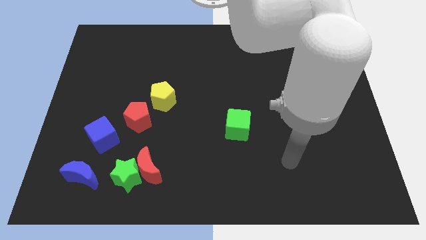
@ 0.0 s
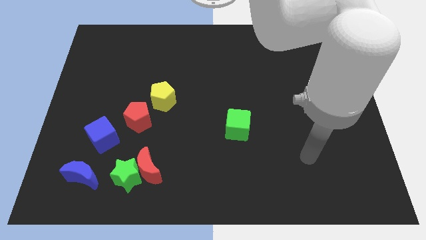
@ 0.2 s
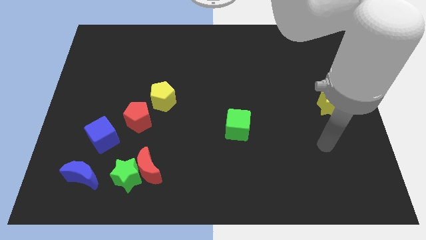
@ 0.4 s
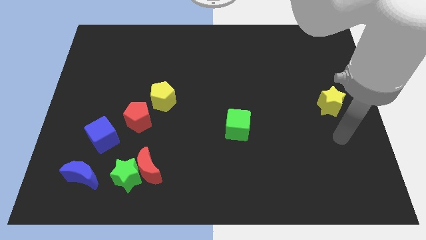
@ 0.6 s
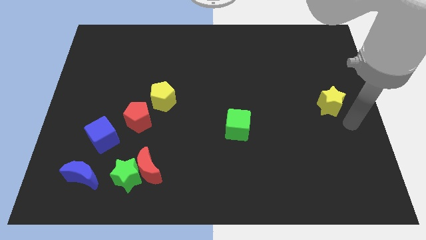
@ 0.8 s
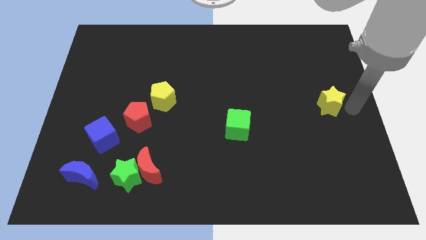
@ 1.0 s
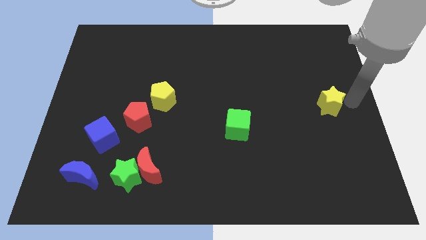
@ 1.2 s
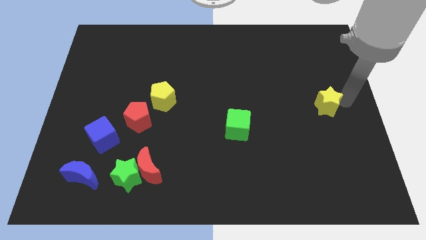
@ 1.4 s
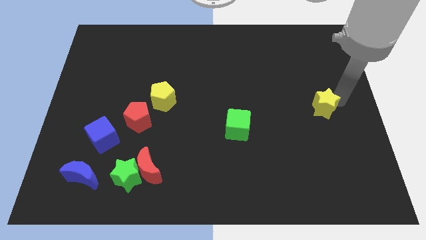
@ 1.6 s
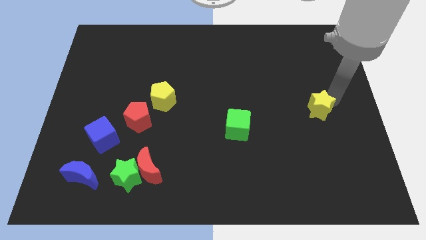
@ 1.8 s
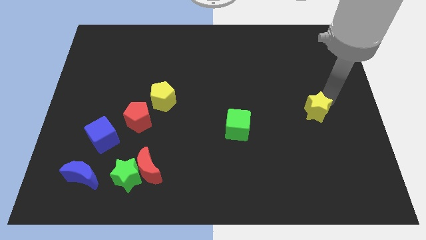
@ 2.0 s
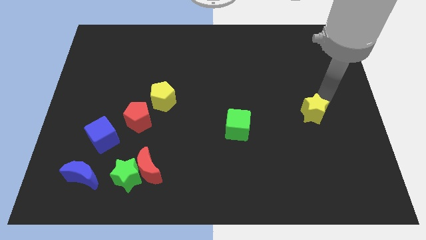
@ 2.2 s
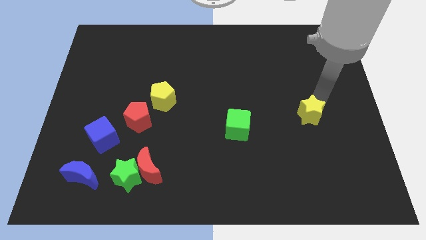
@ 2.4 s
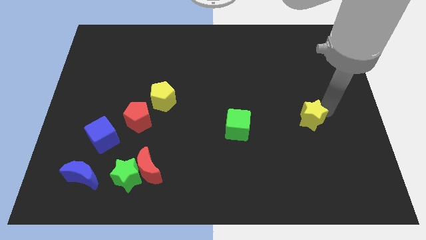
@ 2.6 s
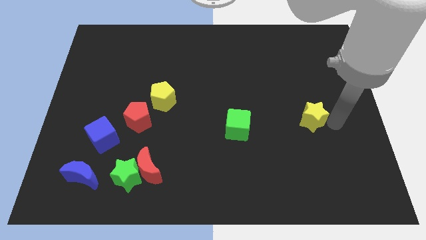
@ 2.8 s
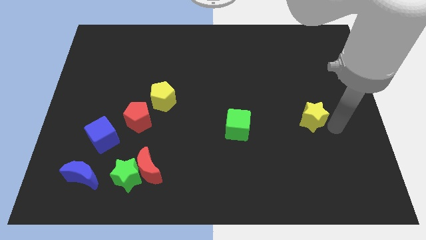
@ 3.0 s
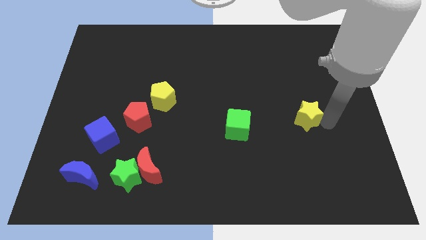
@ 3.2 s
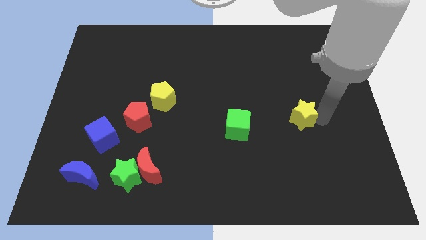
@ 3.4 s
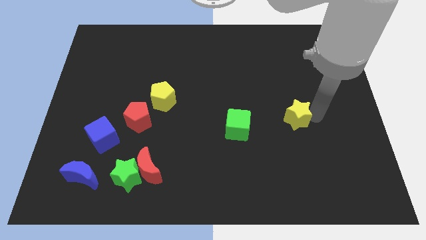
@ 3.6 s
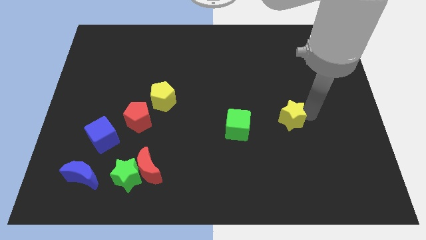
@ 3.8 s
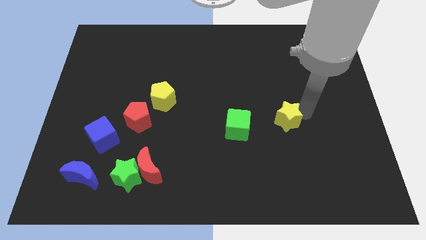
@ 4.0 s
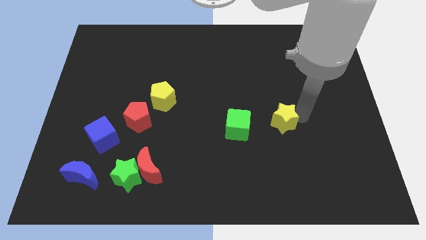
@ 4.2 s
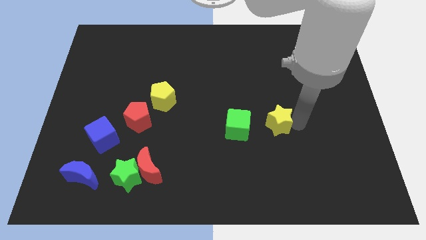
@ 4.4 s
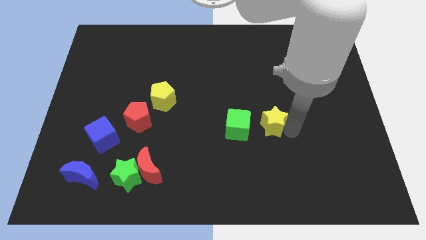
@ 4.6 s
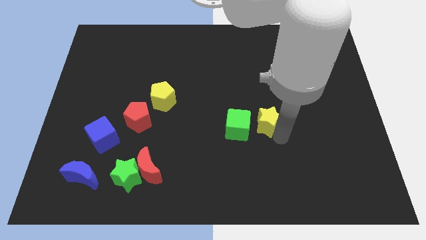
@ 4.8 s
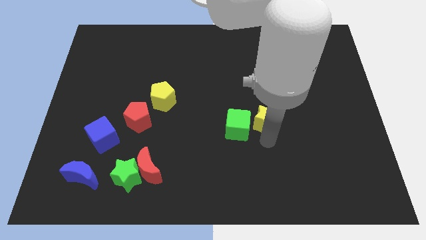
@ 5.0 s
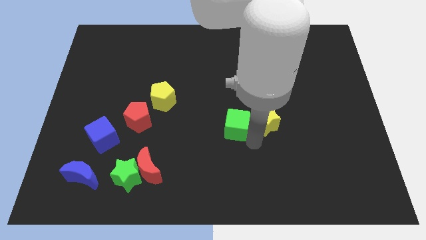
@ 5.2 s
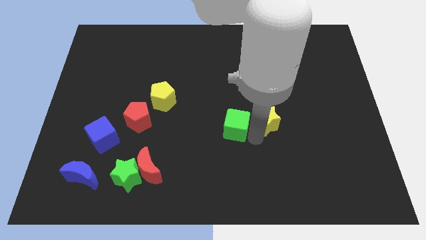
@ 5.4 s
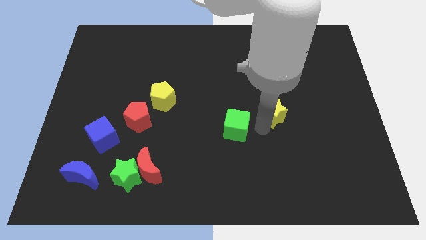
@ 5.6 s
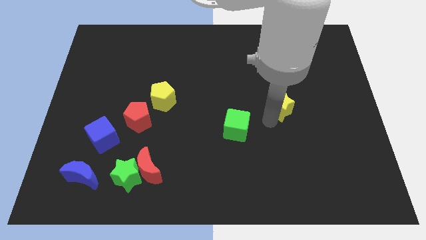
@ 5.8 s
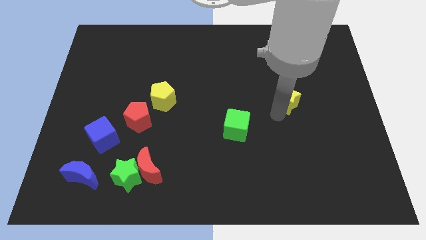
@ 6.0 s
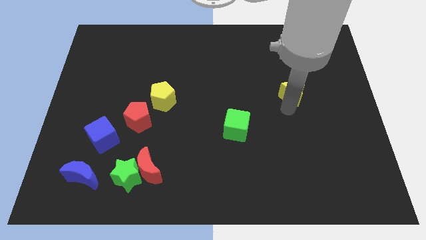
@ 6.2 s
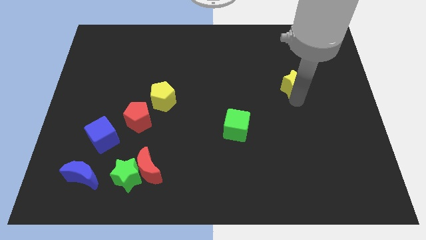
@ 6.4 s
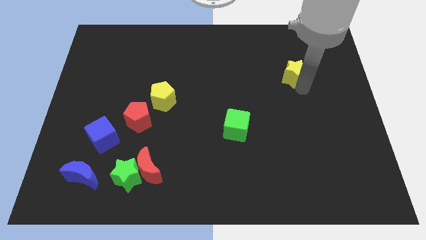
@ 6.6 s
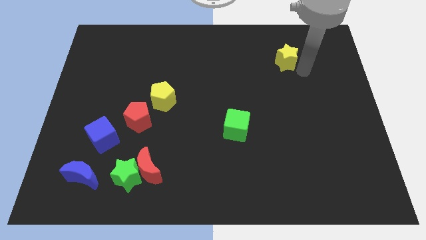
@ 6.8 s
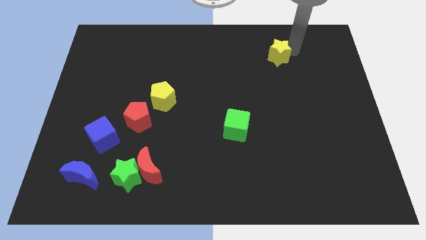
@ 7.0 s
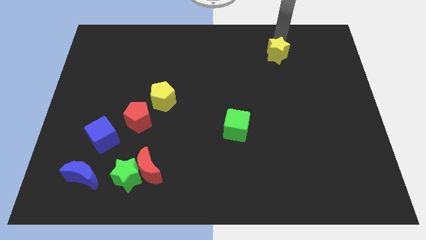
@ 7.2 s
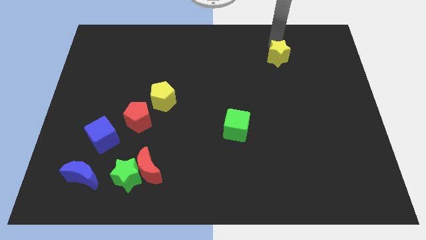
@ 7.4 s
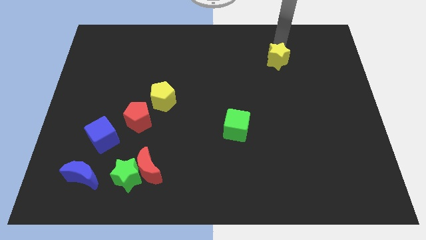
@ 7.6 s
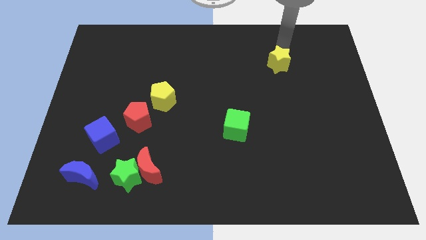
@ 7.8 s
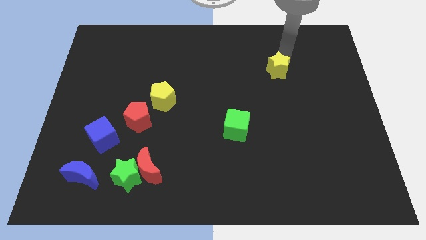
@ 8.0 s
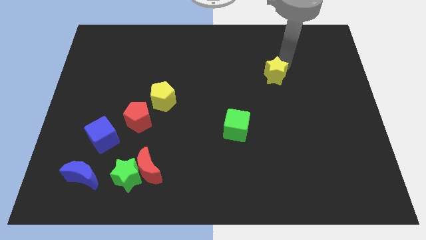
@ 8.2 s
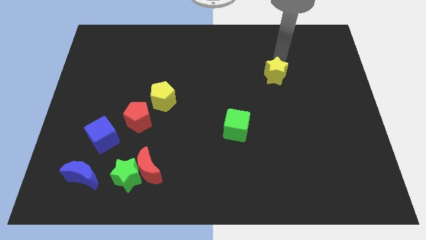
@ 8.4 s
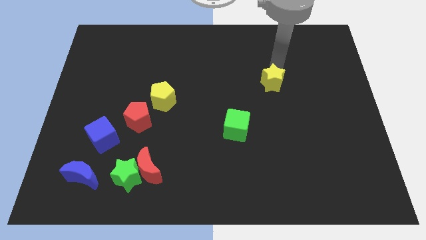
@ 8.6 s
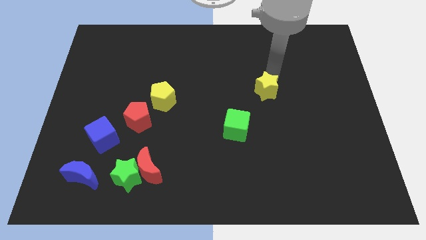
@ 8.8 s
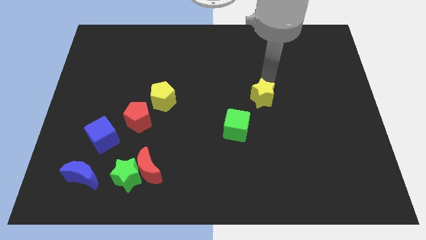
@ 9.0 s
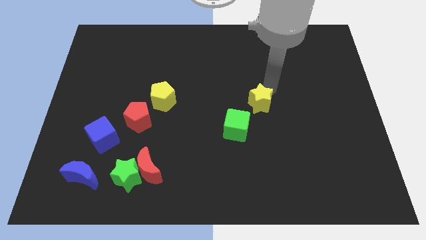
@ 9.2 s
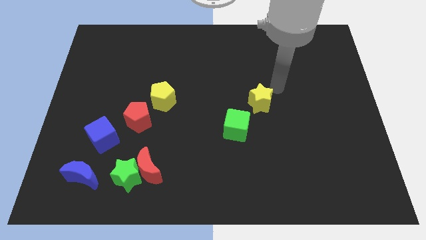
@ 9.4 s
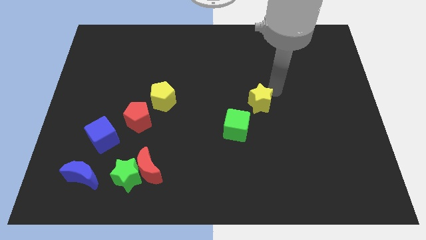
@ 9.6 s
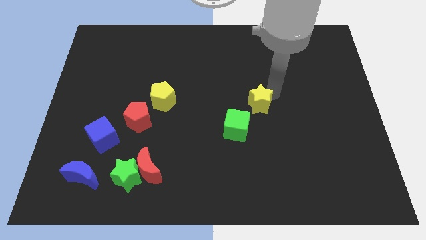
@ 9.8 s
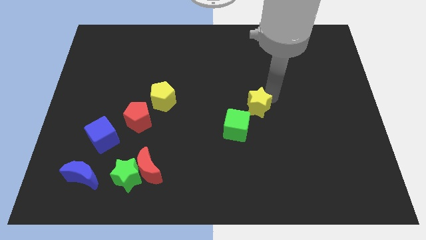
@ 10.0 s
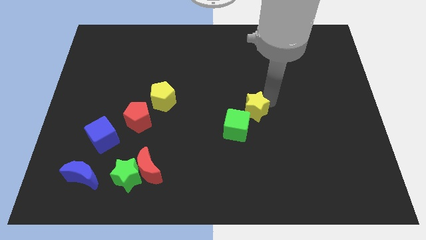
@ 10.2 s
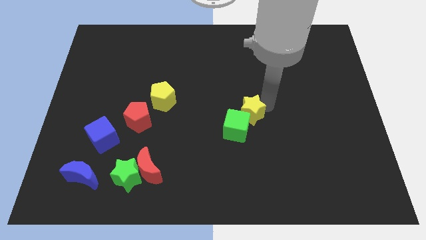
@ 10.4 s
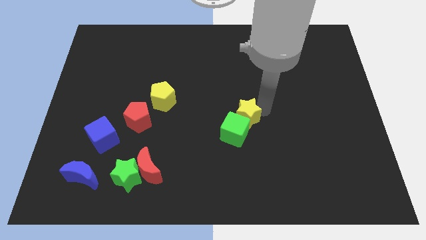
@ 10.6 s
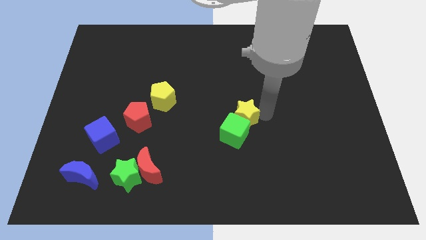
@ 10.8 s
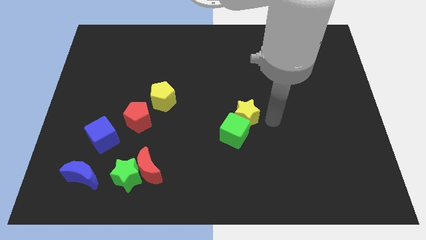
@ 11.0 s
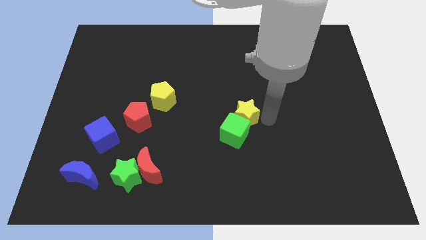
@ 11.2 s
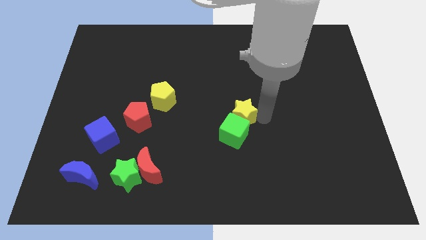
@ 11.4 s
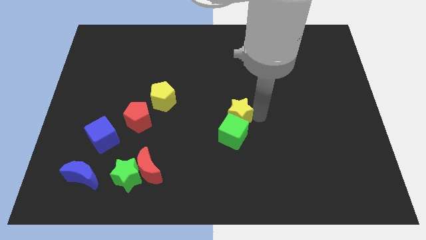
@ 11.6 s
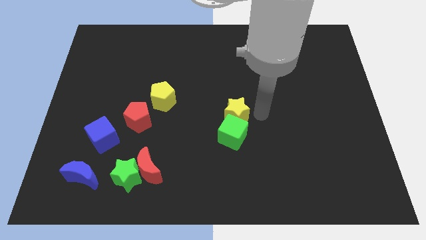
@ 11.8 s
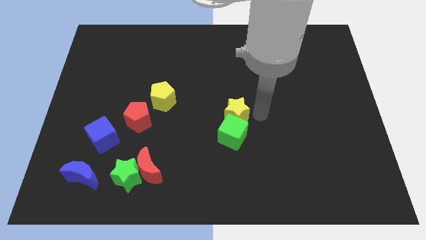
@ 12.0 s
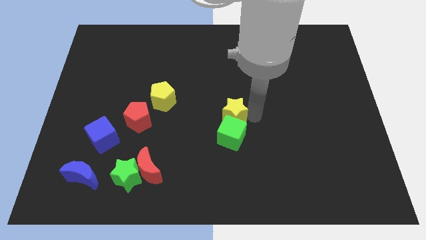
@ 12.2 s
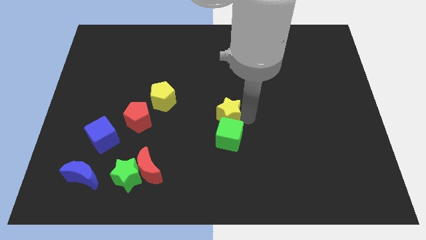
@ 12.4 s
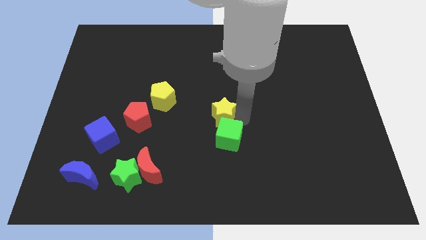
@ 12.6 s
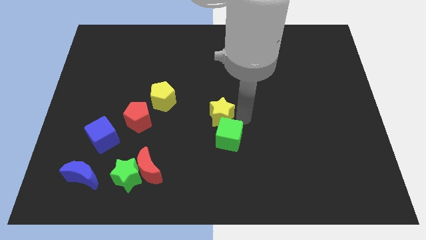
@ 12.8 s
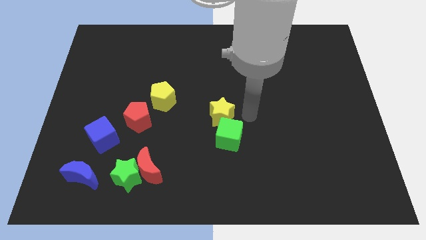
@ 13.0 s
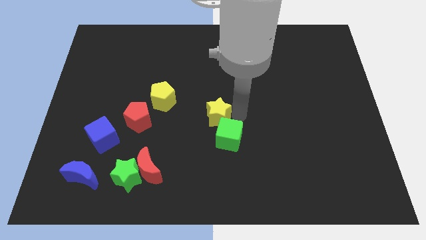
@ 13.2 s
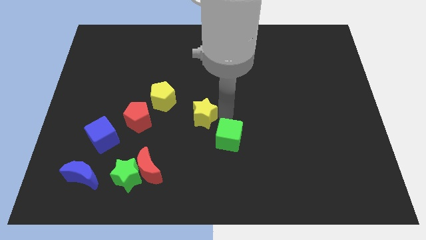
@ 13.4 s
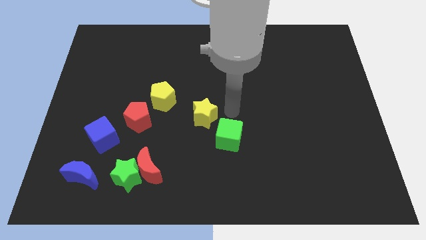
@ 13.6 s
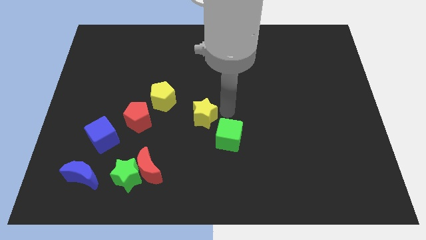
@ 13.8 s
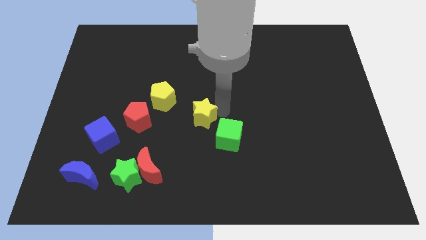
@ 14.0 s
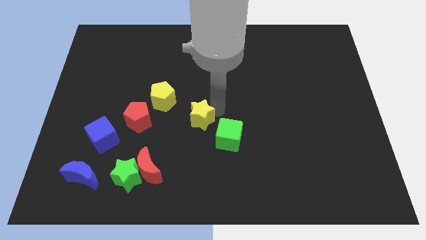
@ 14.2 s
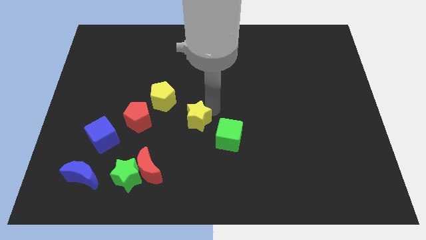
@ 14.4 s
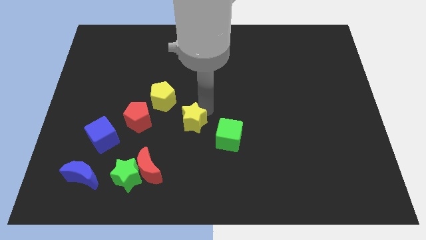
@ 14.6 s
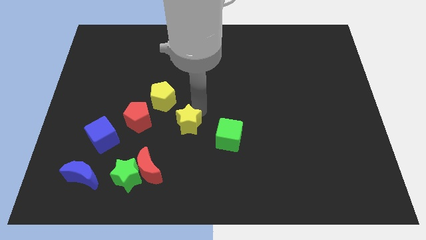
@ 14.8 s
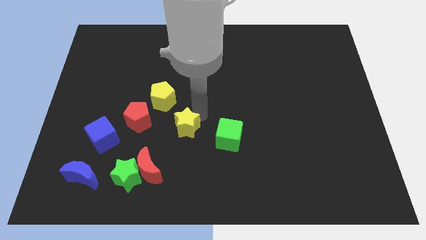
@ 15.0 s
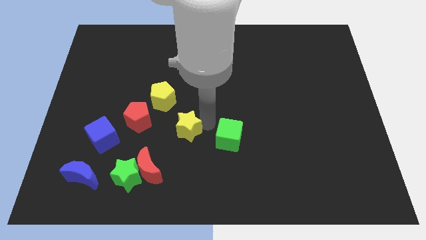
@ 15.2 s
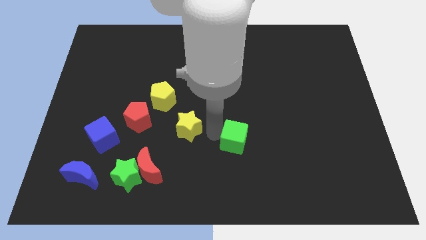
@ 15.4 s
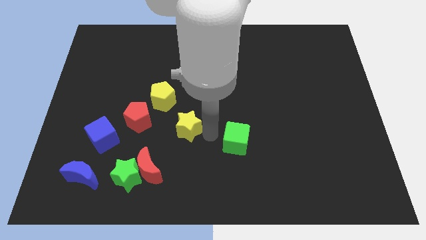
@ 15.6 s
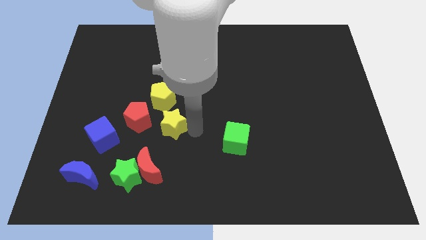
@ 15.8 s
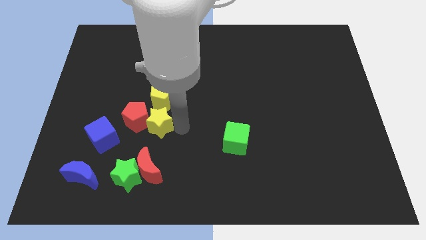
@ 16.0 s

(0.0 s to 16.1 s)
put the yellow star next to the red pentagon
